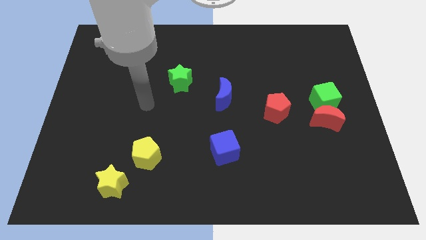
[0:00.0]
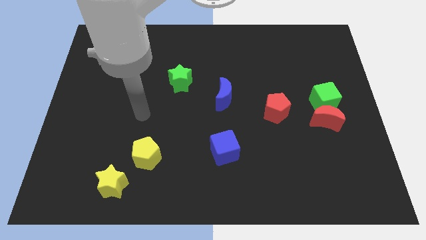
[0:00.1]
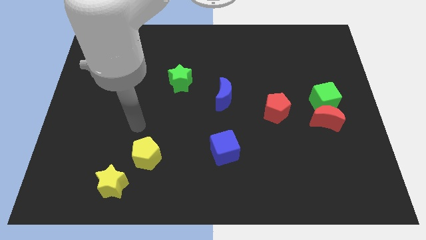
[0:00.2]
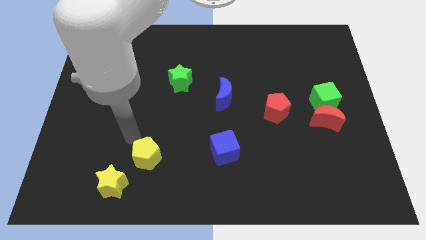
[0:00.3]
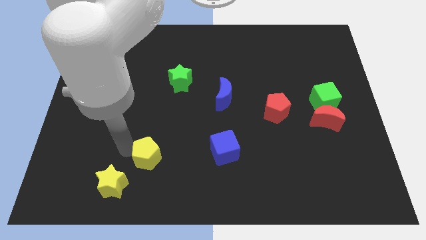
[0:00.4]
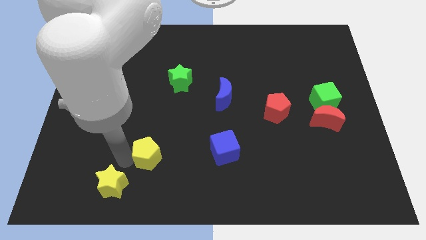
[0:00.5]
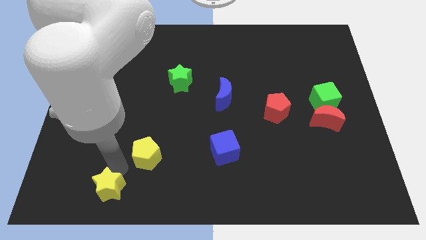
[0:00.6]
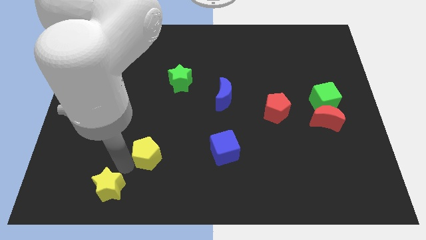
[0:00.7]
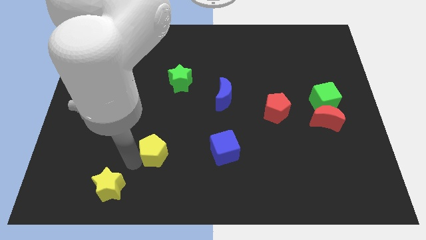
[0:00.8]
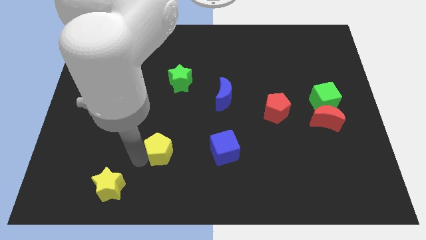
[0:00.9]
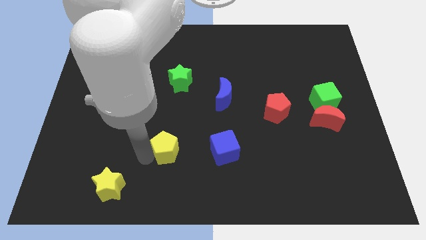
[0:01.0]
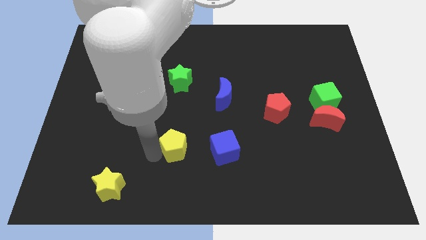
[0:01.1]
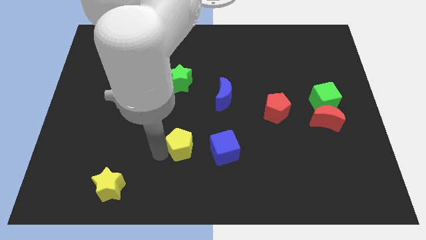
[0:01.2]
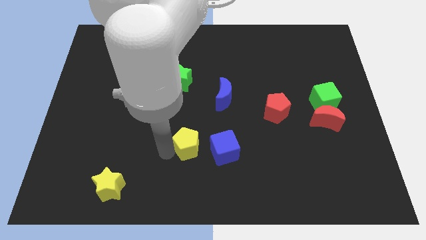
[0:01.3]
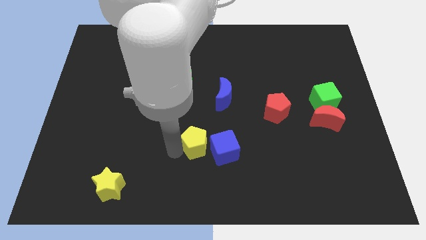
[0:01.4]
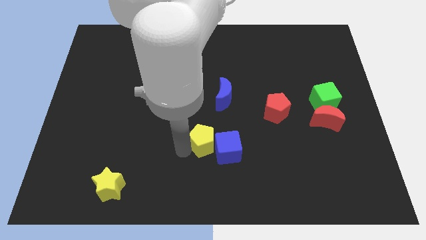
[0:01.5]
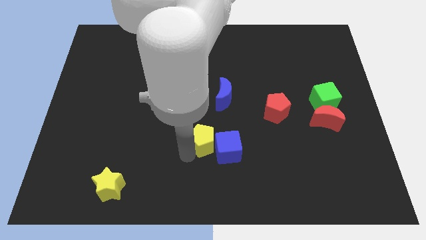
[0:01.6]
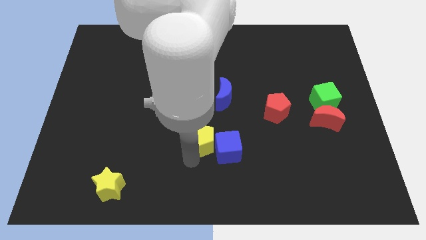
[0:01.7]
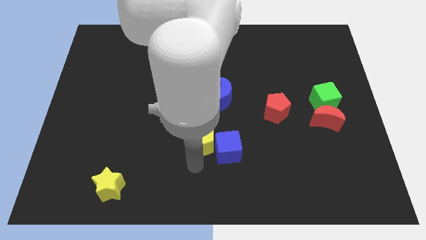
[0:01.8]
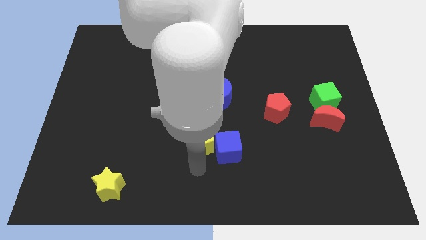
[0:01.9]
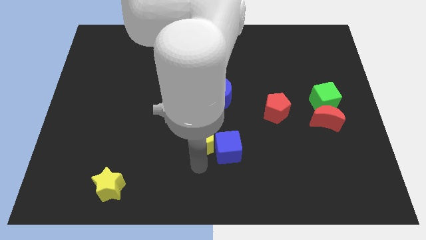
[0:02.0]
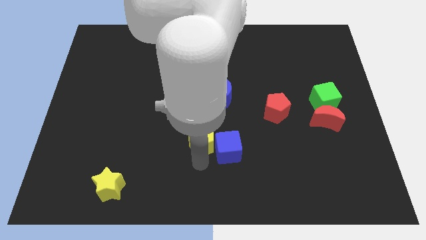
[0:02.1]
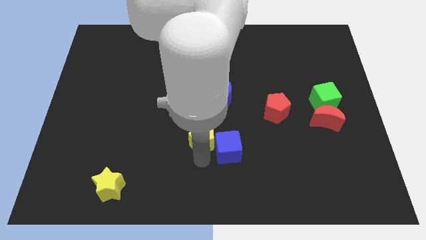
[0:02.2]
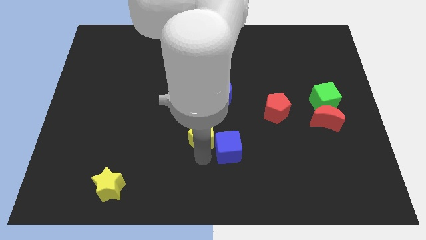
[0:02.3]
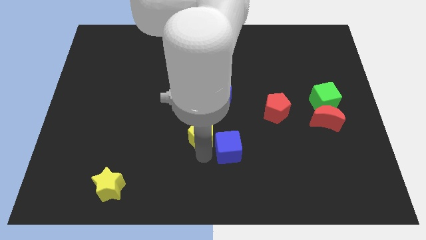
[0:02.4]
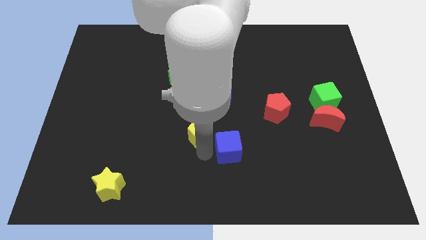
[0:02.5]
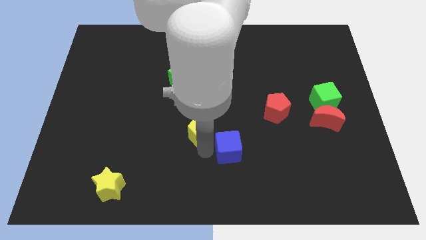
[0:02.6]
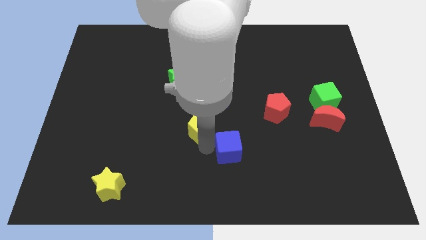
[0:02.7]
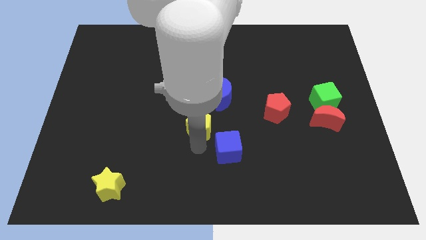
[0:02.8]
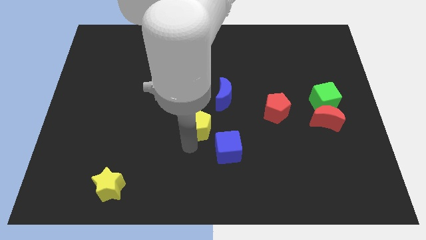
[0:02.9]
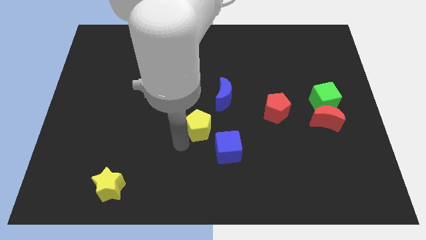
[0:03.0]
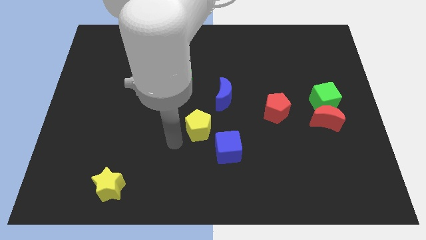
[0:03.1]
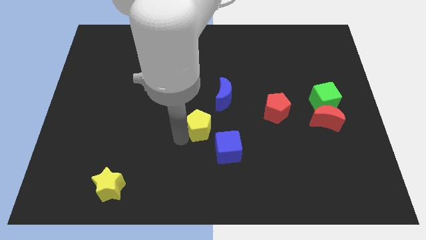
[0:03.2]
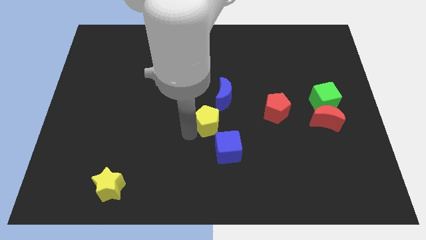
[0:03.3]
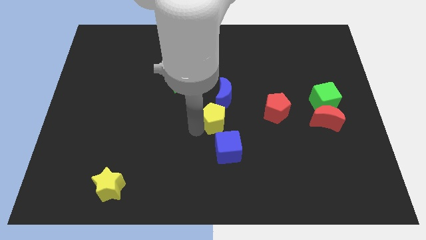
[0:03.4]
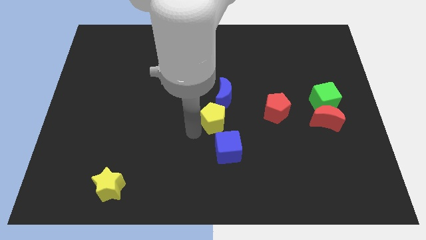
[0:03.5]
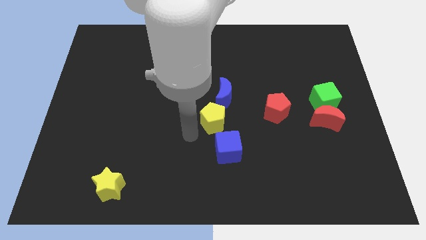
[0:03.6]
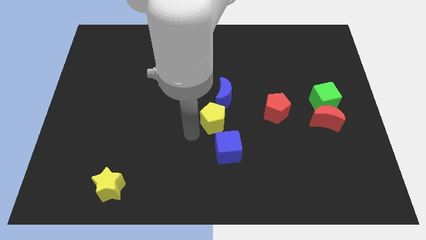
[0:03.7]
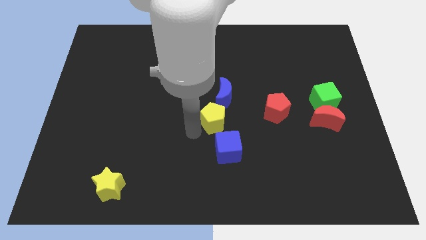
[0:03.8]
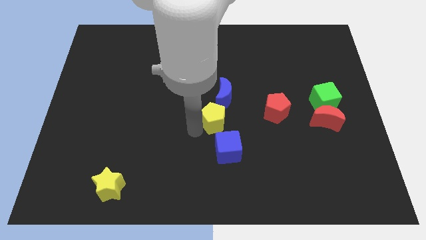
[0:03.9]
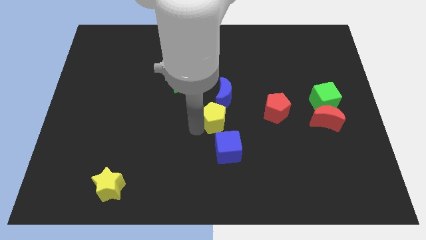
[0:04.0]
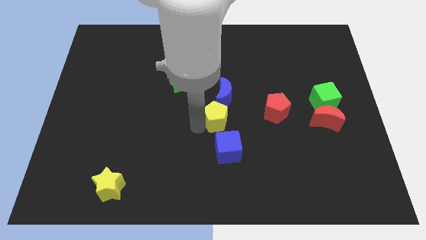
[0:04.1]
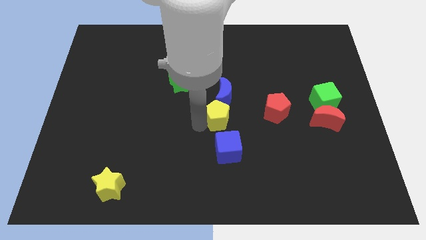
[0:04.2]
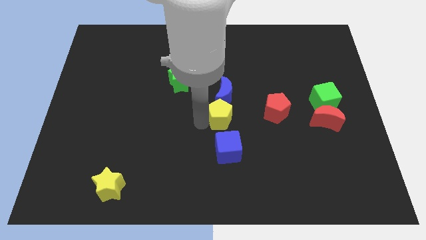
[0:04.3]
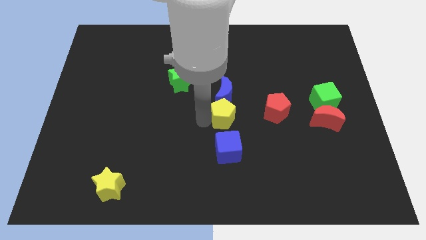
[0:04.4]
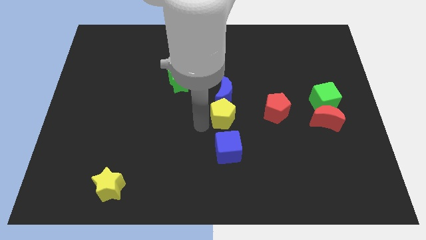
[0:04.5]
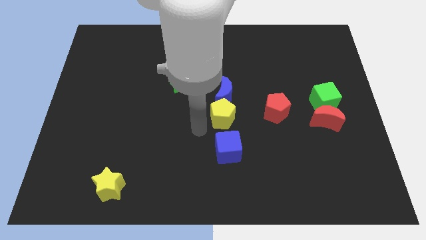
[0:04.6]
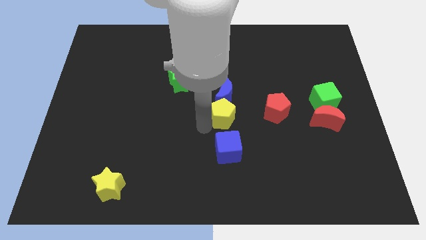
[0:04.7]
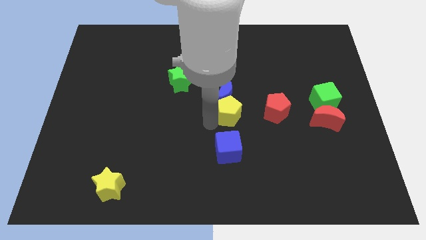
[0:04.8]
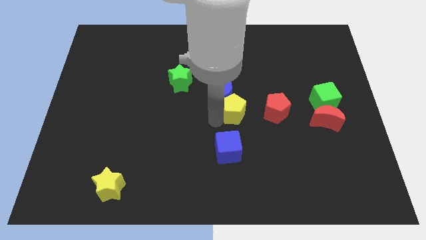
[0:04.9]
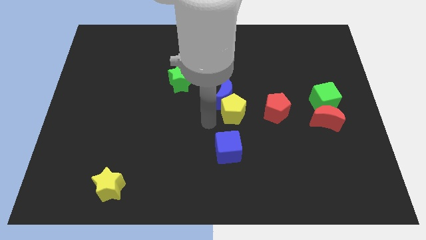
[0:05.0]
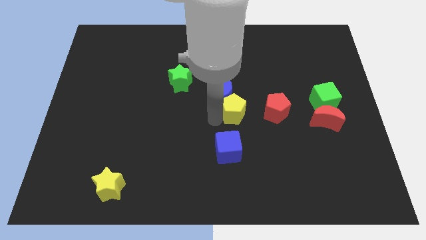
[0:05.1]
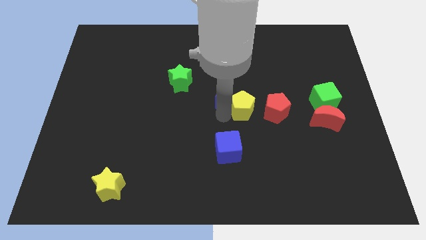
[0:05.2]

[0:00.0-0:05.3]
slide the yellow pentagon to the right side of the blue moon

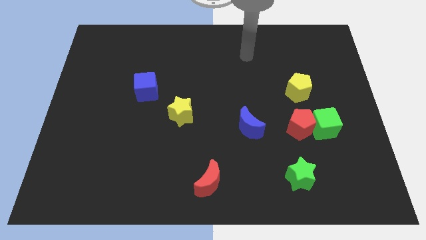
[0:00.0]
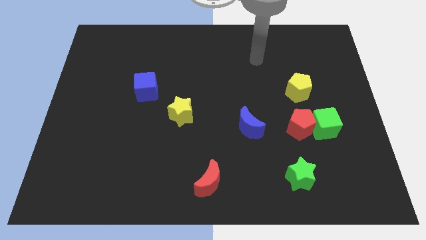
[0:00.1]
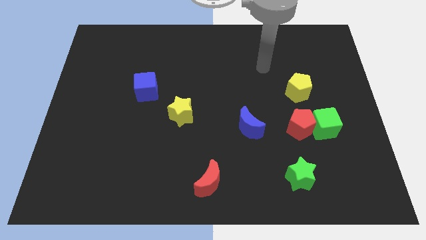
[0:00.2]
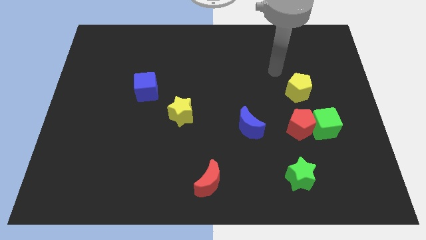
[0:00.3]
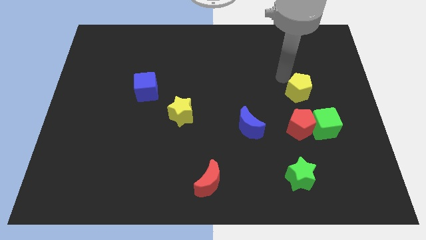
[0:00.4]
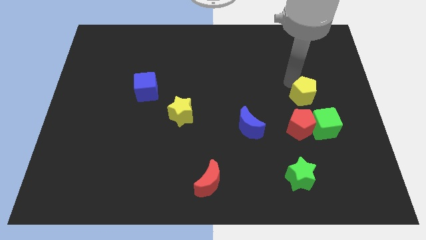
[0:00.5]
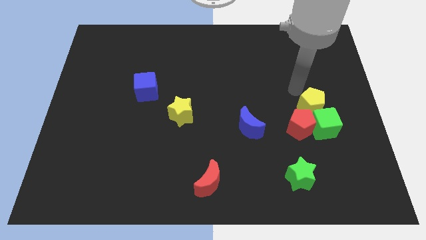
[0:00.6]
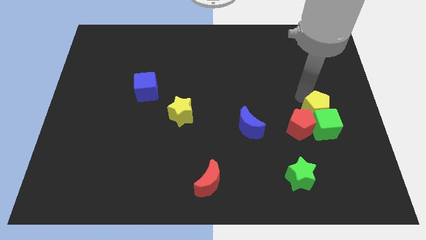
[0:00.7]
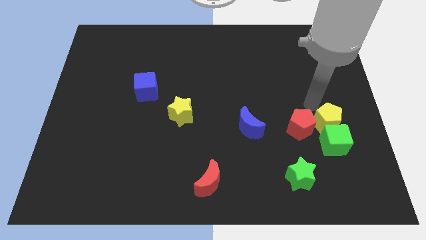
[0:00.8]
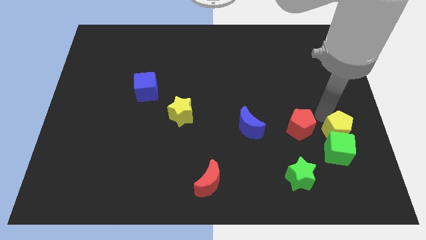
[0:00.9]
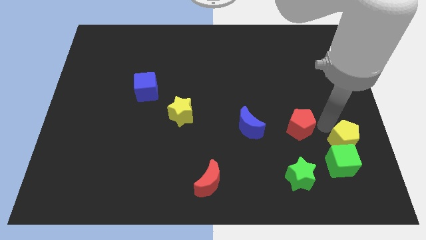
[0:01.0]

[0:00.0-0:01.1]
move the green cube to the right side of the green star
